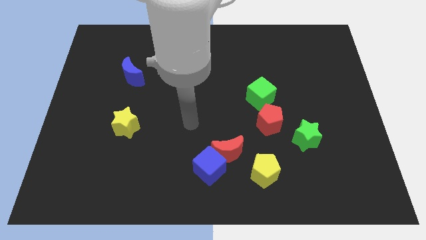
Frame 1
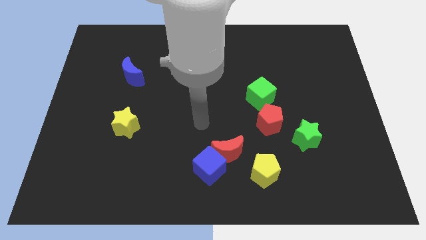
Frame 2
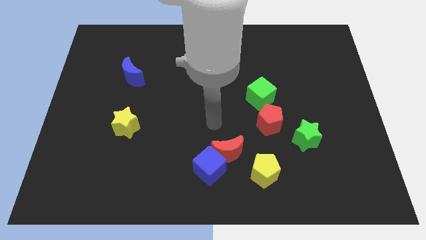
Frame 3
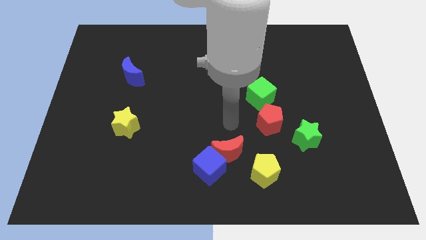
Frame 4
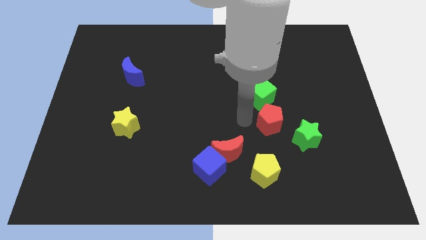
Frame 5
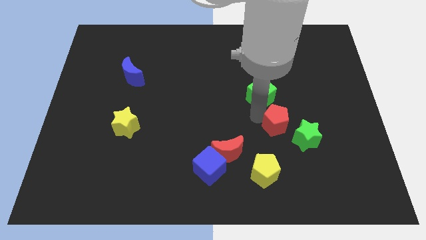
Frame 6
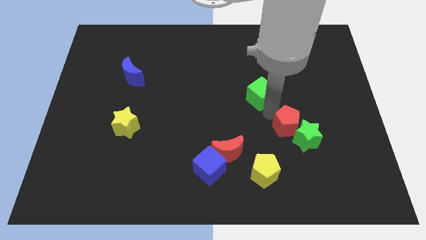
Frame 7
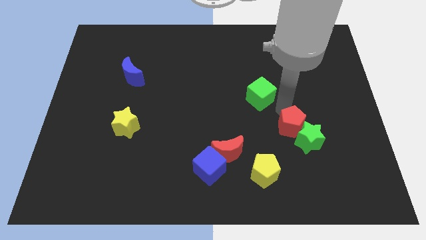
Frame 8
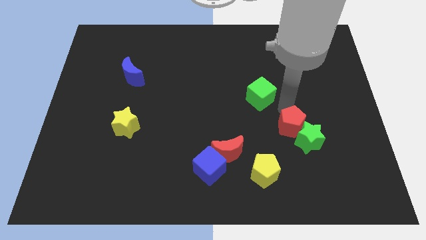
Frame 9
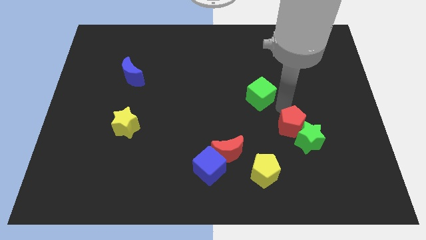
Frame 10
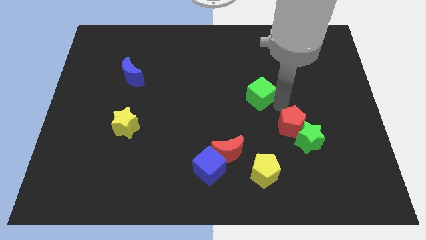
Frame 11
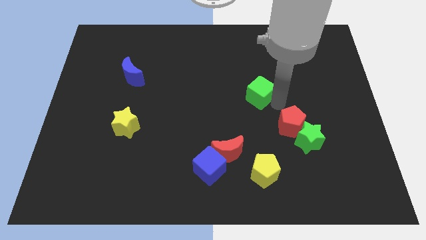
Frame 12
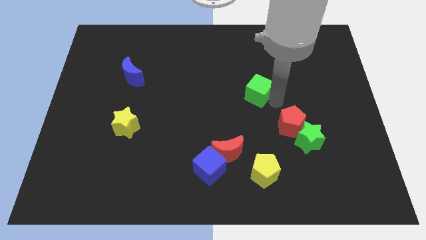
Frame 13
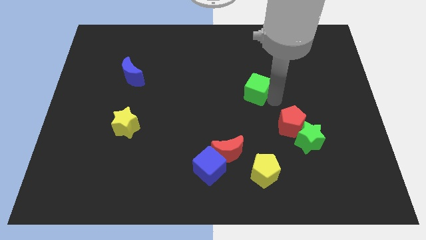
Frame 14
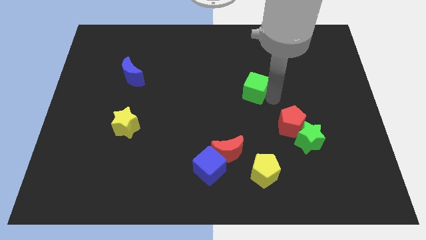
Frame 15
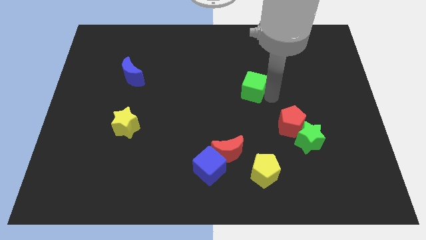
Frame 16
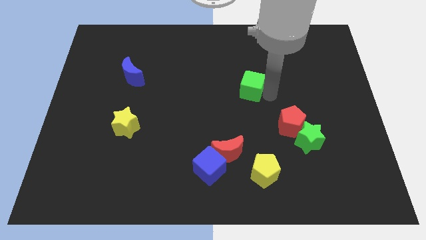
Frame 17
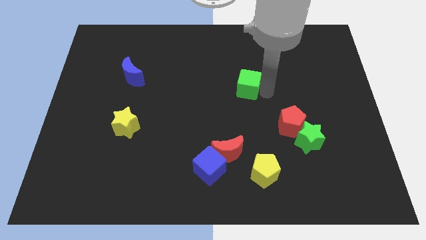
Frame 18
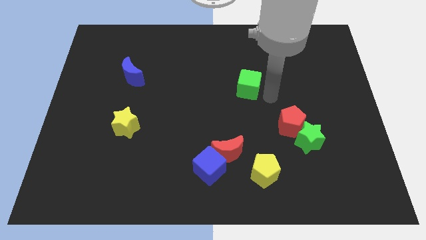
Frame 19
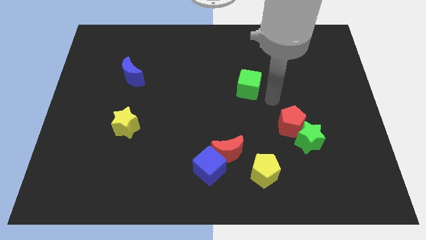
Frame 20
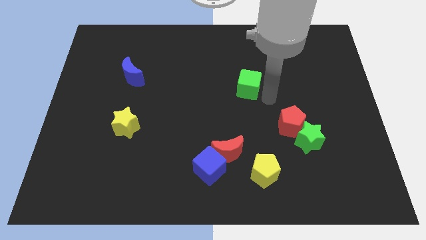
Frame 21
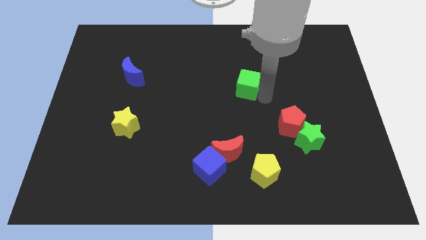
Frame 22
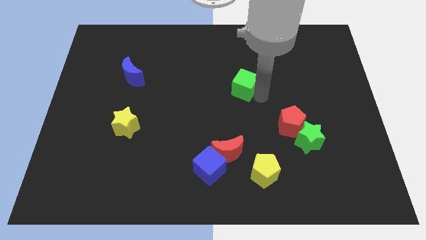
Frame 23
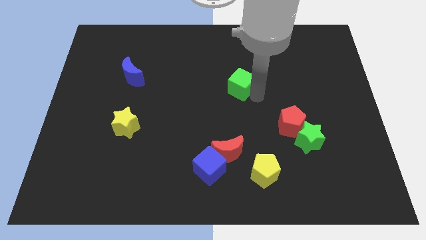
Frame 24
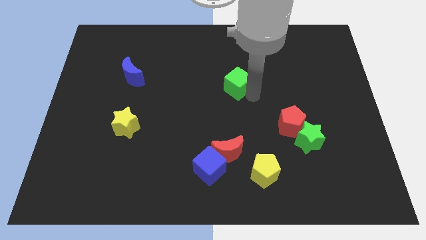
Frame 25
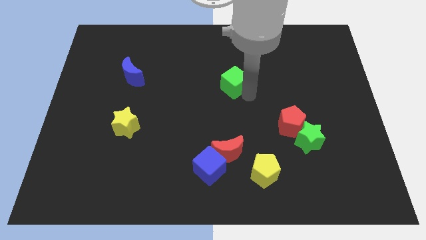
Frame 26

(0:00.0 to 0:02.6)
slide the green cube diagonally upwards and left a bit

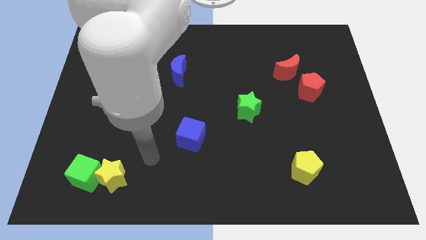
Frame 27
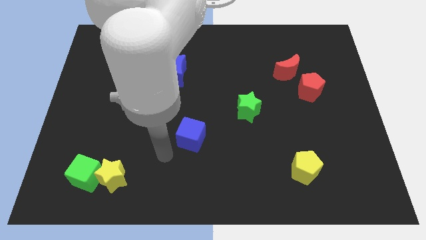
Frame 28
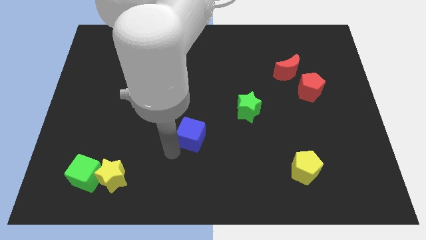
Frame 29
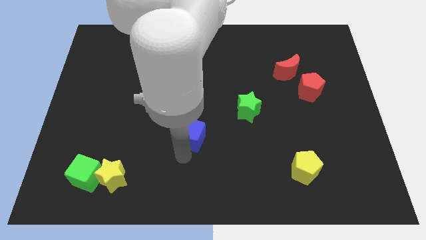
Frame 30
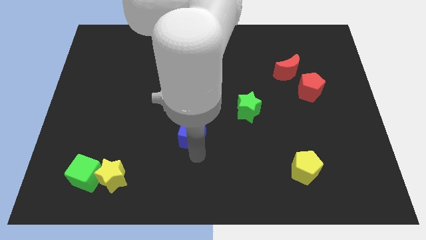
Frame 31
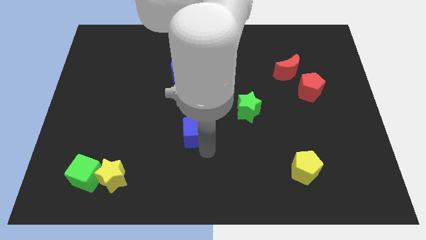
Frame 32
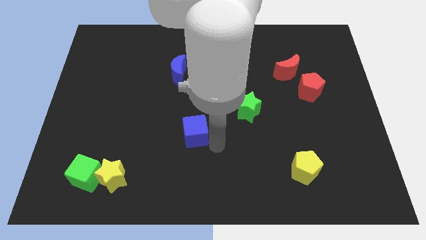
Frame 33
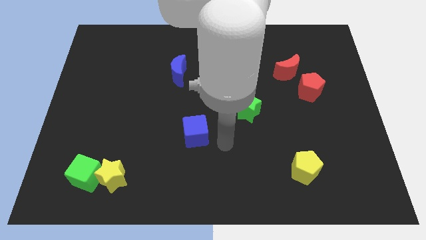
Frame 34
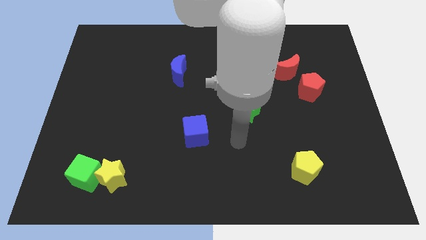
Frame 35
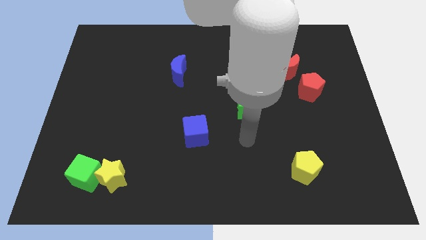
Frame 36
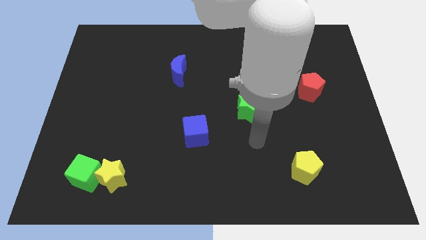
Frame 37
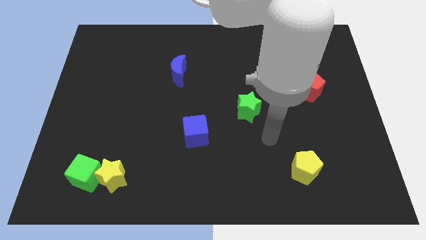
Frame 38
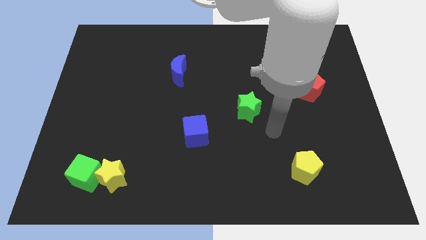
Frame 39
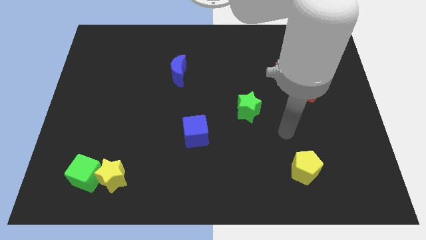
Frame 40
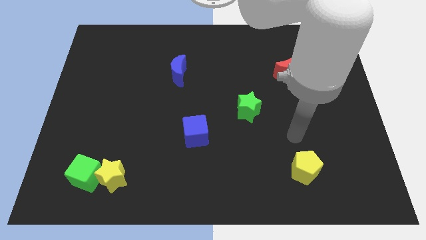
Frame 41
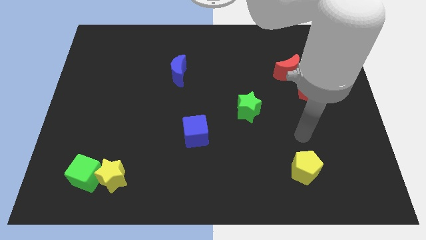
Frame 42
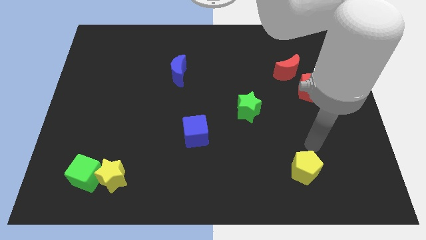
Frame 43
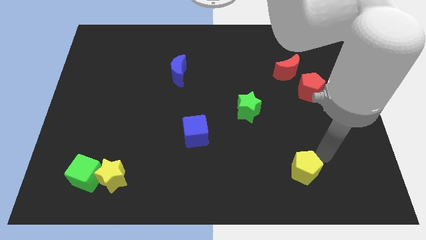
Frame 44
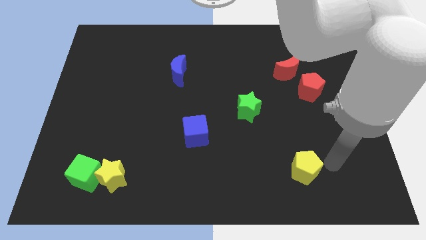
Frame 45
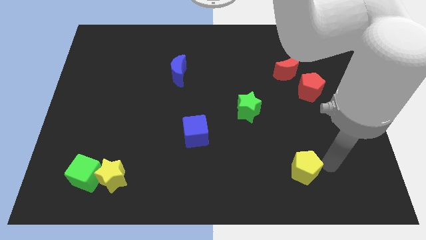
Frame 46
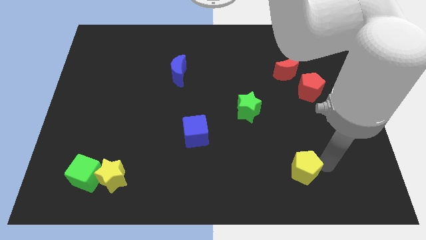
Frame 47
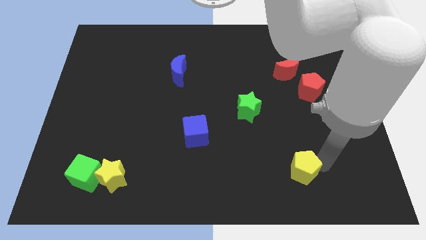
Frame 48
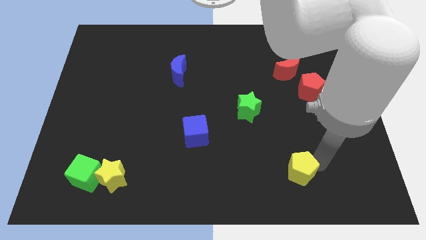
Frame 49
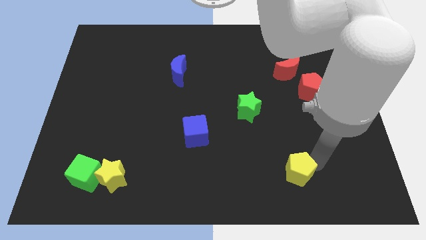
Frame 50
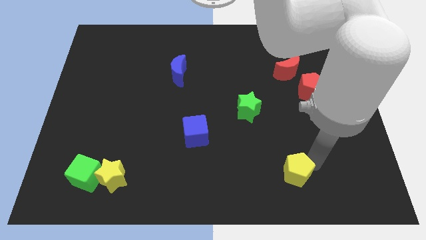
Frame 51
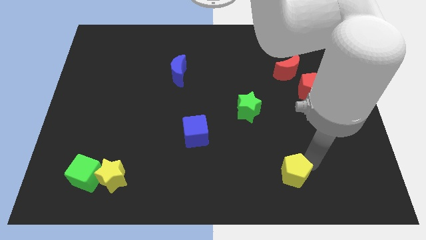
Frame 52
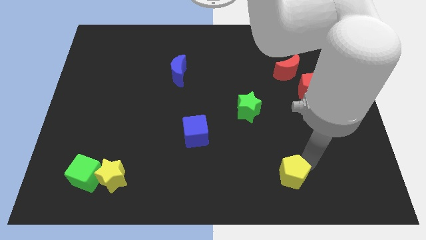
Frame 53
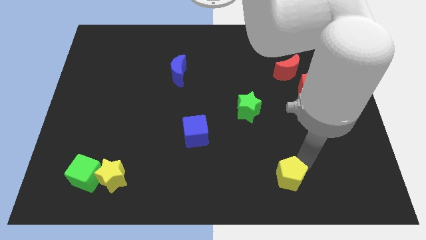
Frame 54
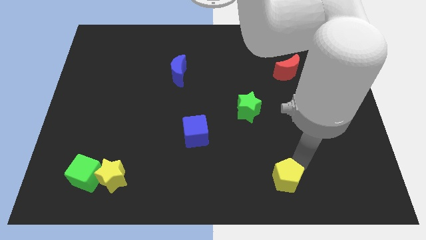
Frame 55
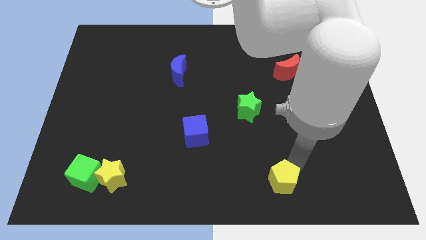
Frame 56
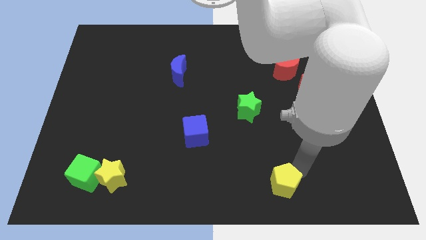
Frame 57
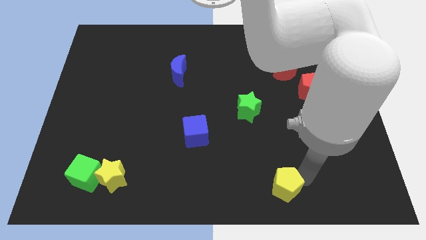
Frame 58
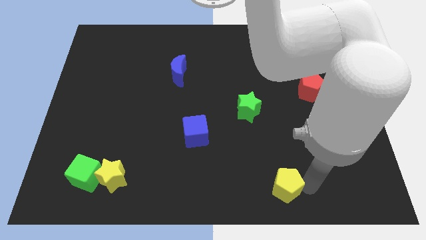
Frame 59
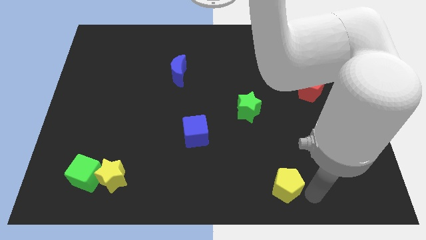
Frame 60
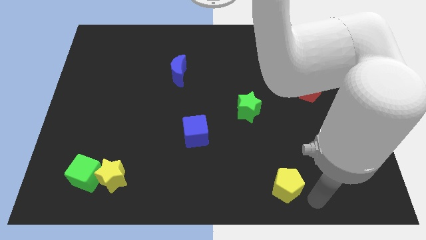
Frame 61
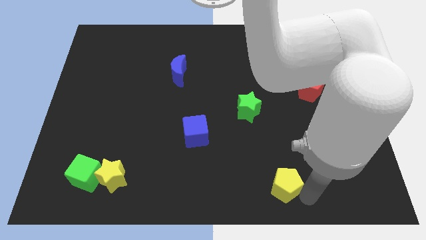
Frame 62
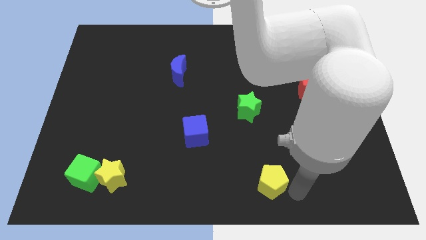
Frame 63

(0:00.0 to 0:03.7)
slightly push the yellow pentagon left

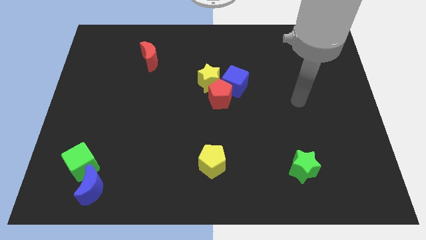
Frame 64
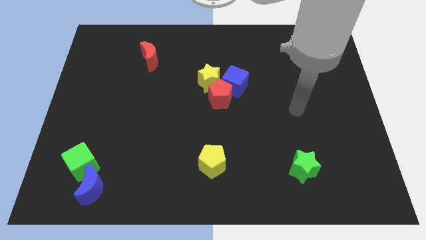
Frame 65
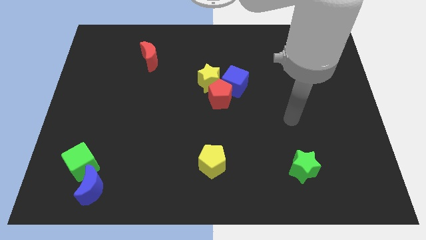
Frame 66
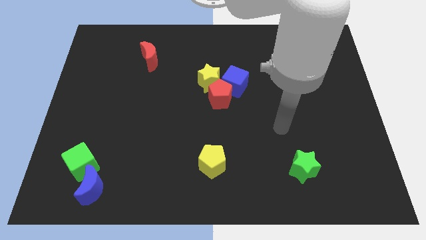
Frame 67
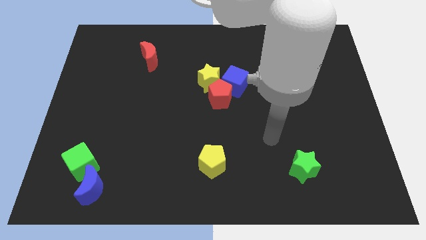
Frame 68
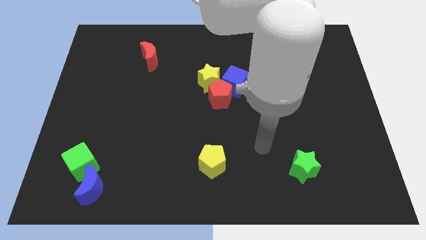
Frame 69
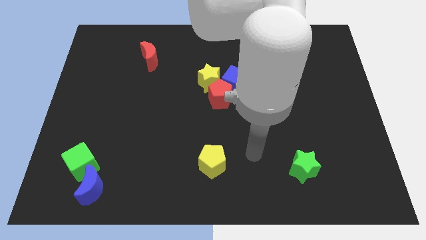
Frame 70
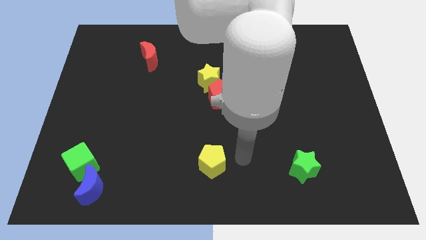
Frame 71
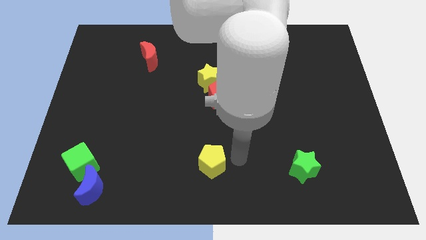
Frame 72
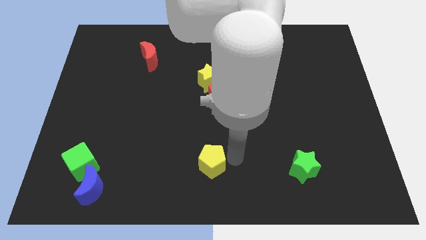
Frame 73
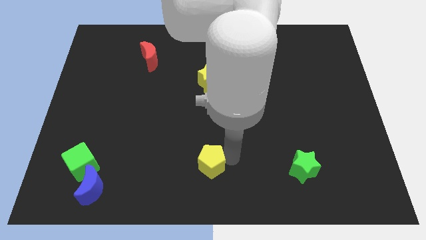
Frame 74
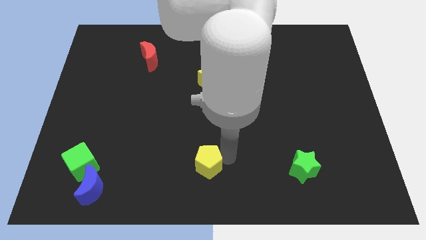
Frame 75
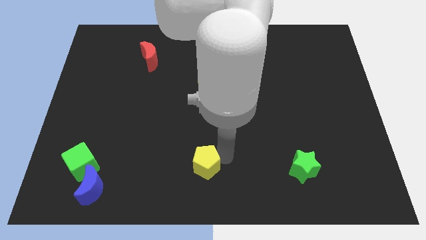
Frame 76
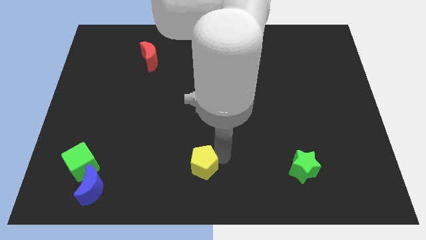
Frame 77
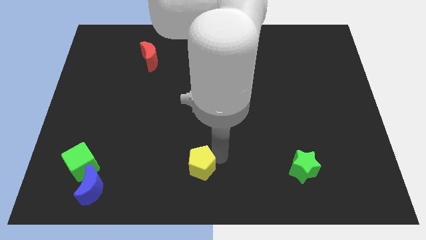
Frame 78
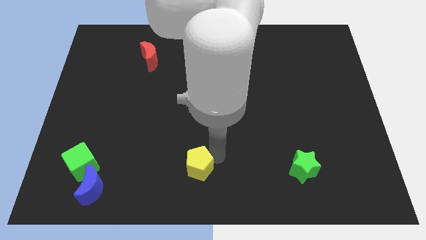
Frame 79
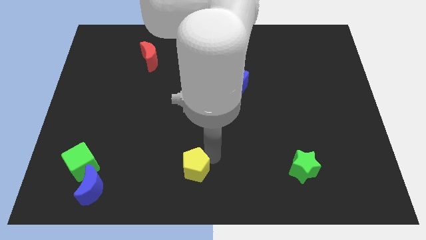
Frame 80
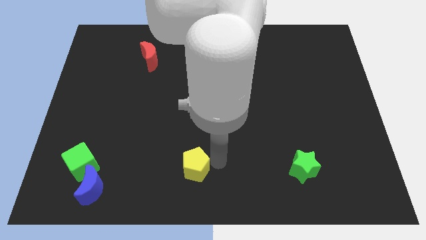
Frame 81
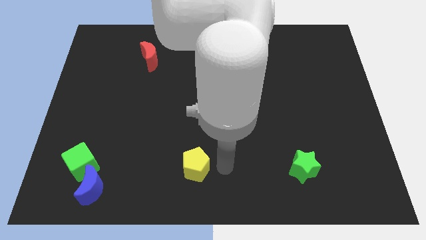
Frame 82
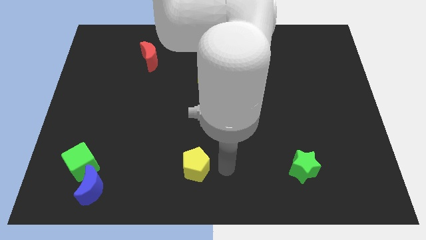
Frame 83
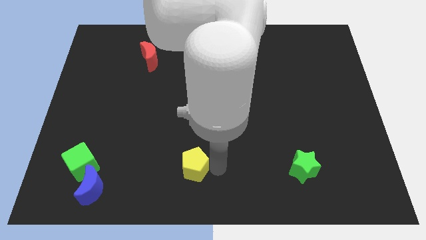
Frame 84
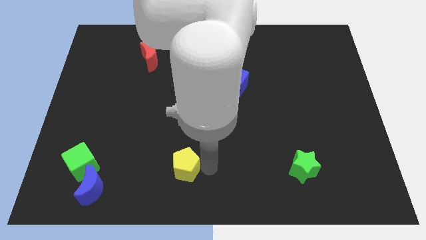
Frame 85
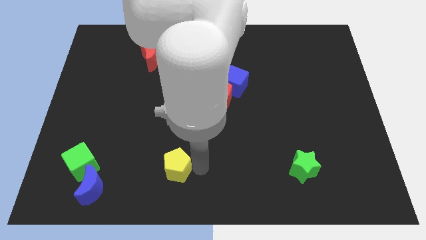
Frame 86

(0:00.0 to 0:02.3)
slightly slide the yellow pentagon left
